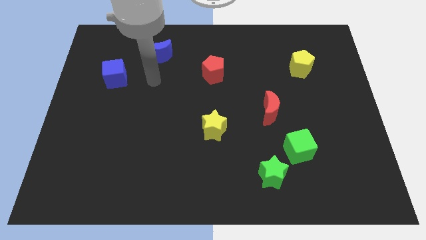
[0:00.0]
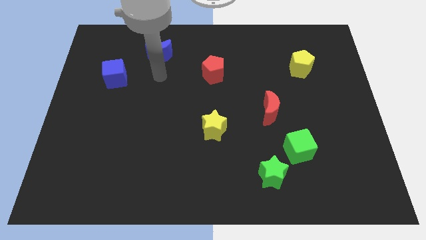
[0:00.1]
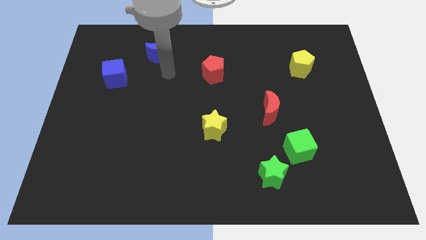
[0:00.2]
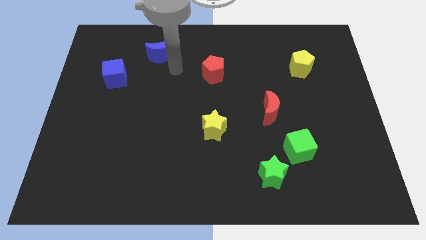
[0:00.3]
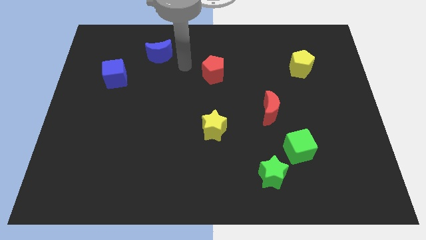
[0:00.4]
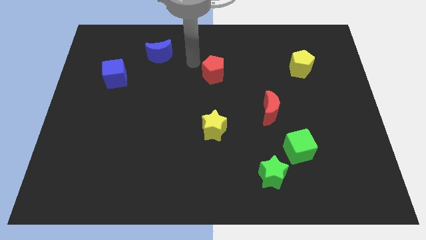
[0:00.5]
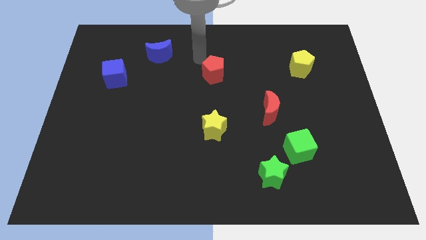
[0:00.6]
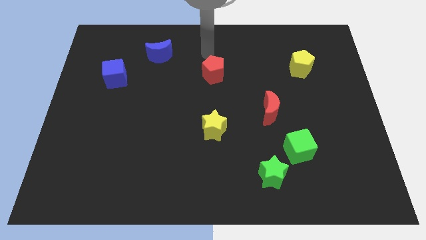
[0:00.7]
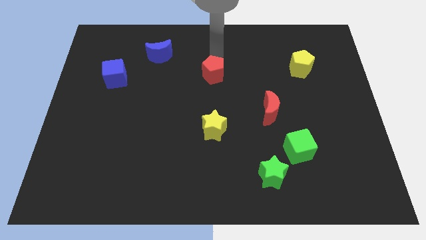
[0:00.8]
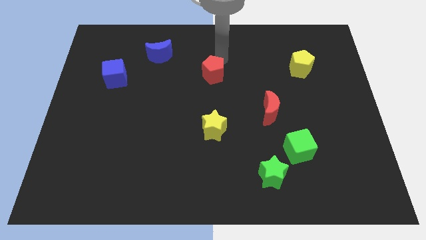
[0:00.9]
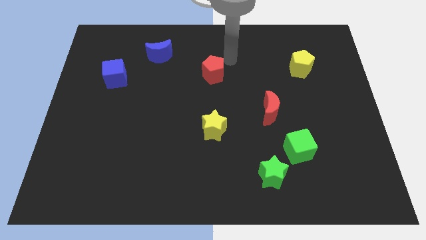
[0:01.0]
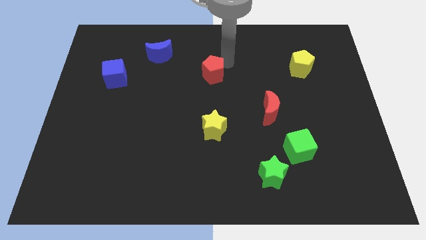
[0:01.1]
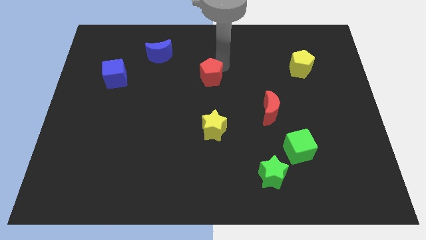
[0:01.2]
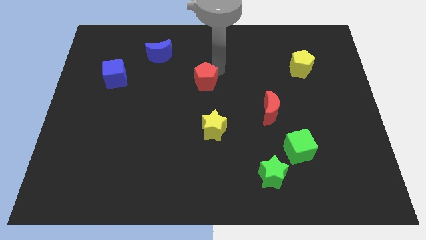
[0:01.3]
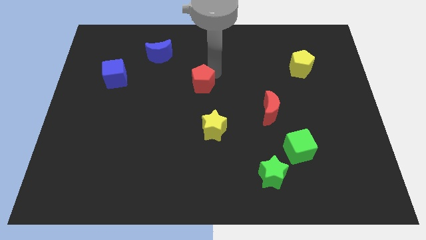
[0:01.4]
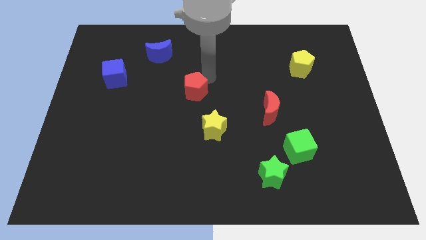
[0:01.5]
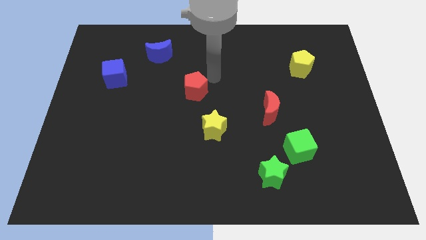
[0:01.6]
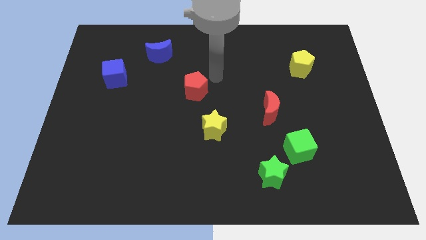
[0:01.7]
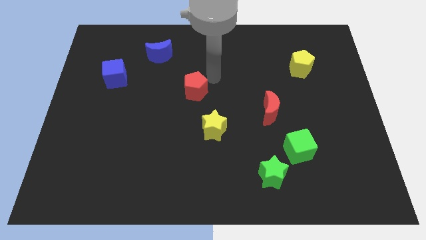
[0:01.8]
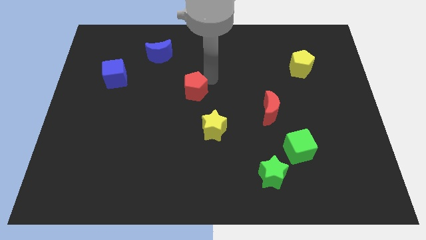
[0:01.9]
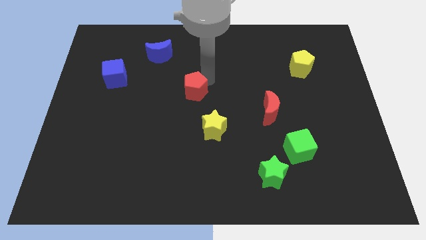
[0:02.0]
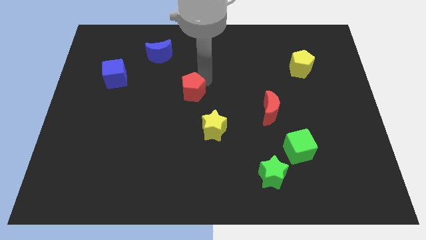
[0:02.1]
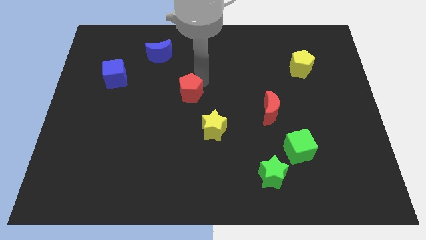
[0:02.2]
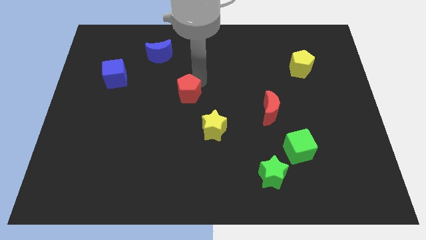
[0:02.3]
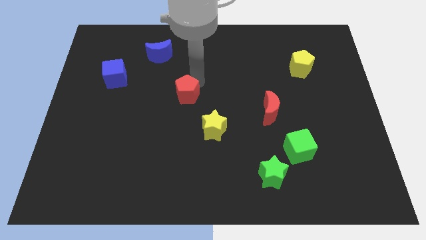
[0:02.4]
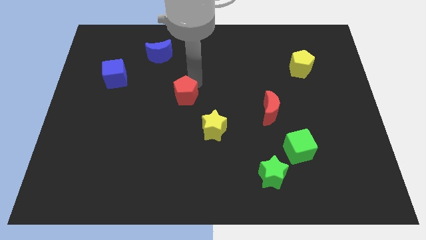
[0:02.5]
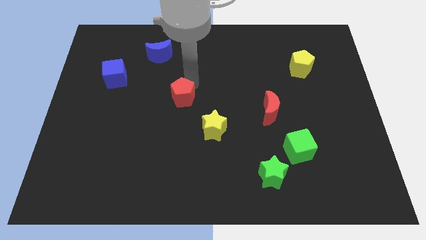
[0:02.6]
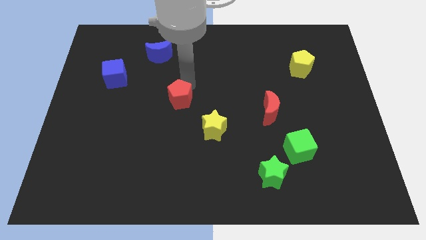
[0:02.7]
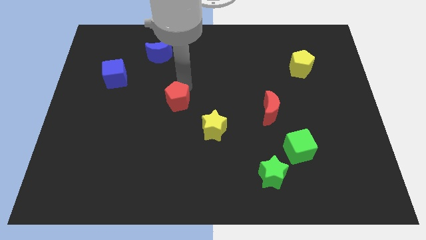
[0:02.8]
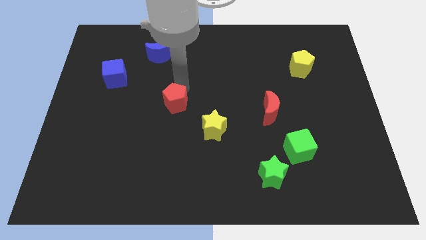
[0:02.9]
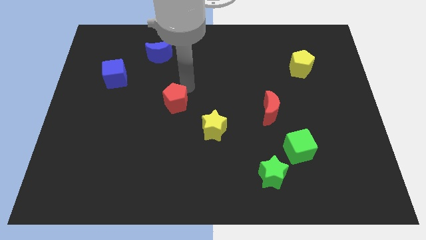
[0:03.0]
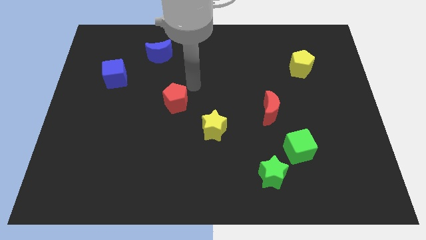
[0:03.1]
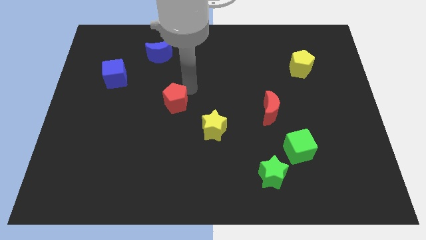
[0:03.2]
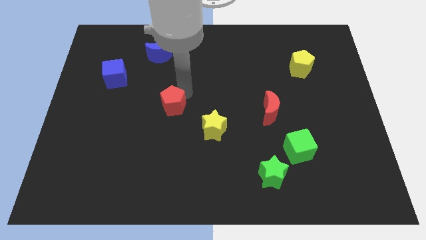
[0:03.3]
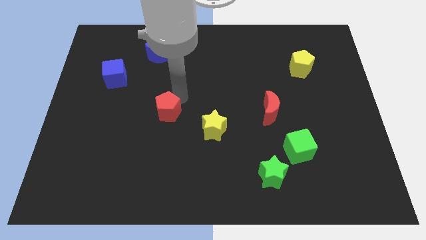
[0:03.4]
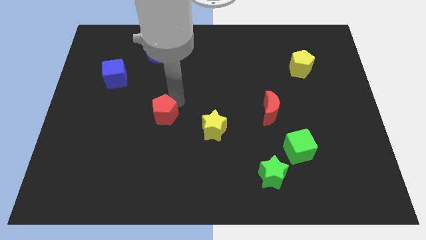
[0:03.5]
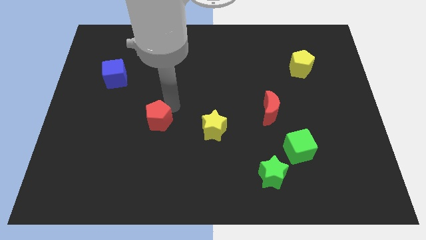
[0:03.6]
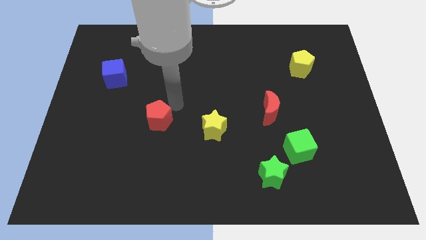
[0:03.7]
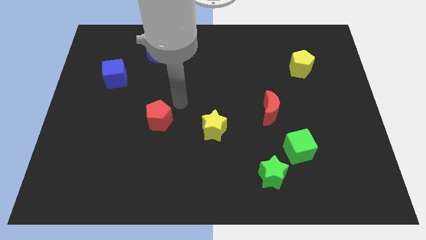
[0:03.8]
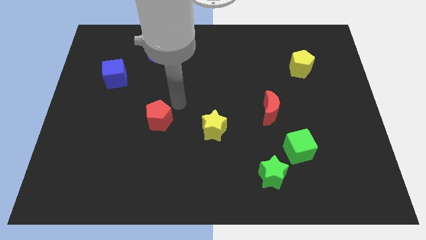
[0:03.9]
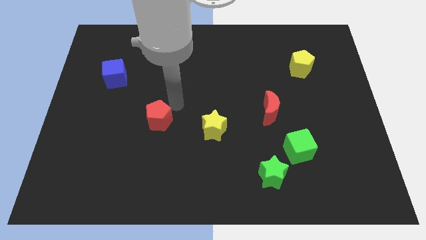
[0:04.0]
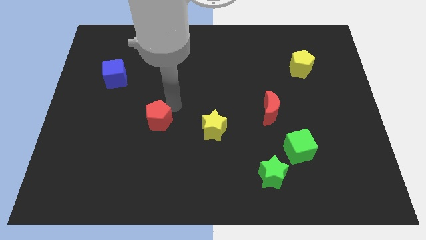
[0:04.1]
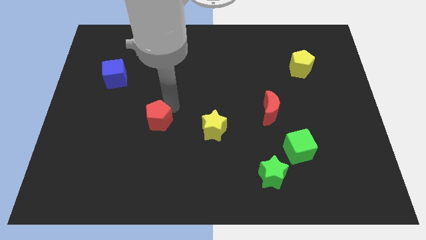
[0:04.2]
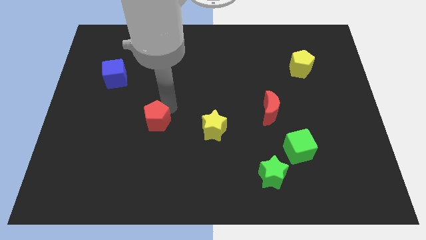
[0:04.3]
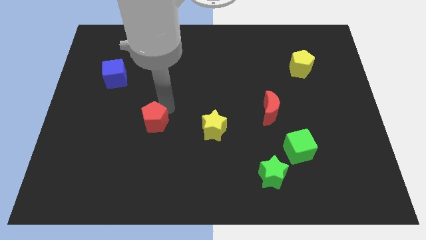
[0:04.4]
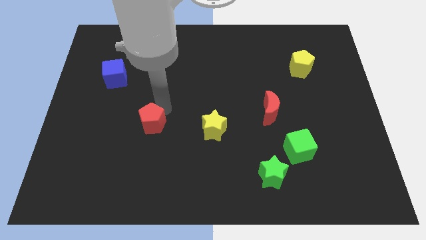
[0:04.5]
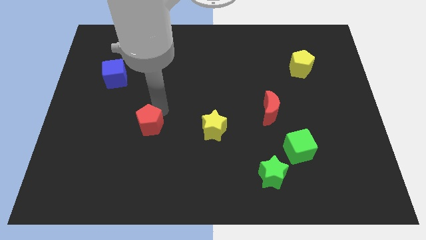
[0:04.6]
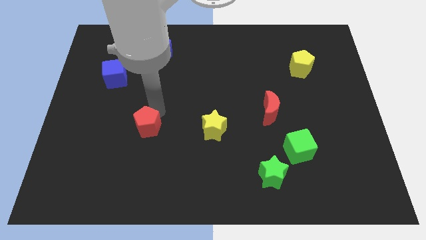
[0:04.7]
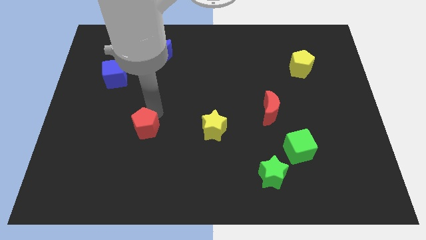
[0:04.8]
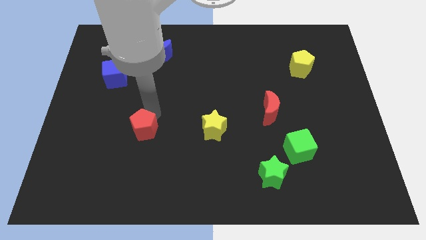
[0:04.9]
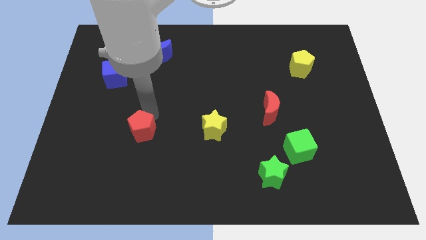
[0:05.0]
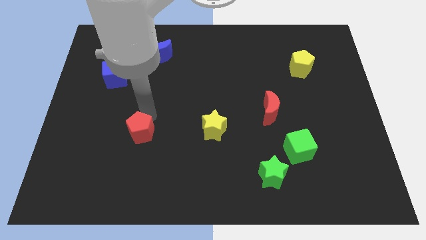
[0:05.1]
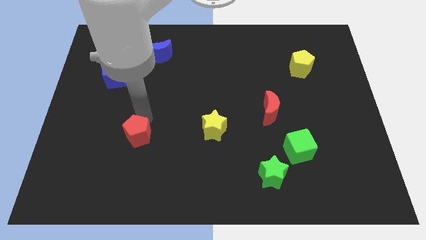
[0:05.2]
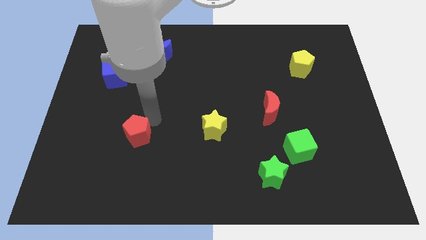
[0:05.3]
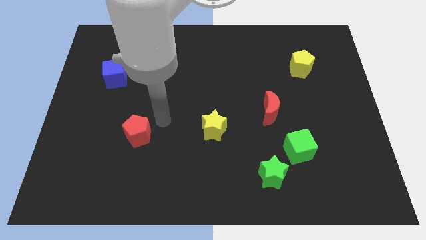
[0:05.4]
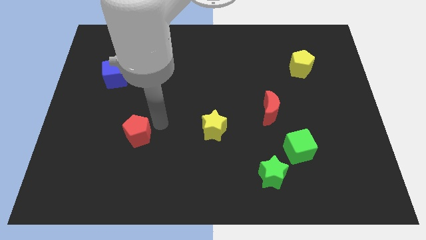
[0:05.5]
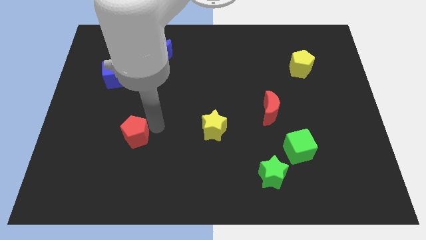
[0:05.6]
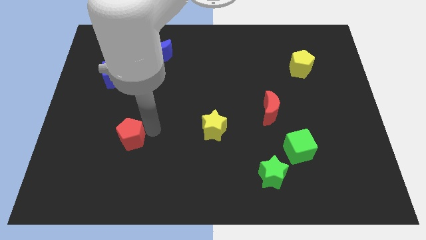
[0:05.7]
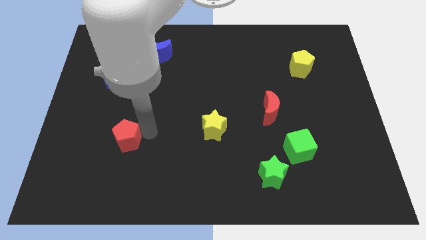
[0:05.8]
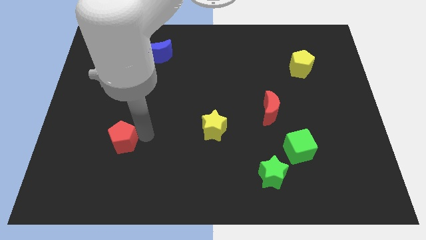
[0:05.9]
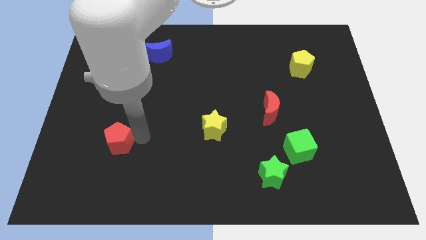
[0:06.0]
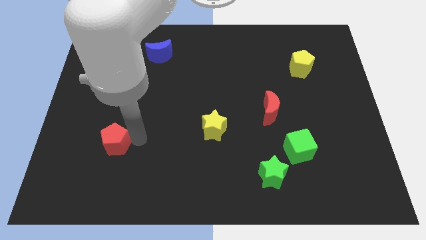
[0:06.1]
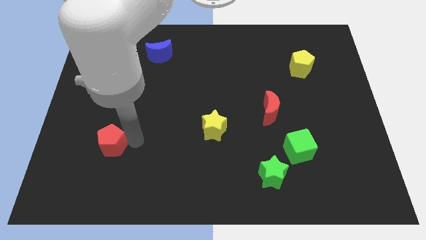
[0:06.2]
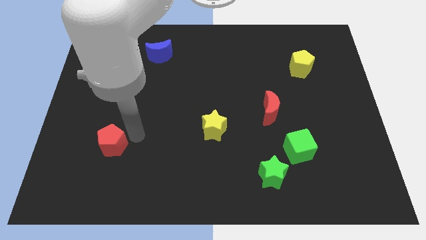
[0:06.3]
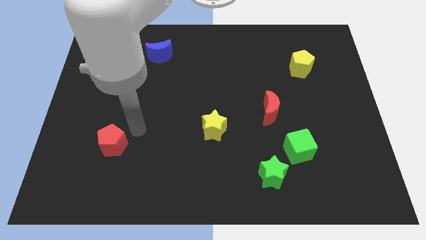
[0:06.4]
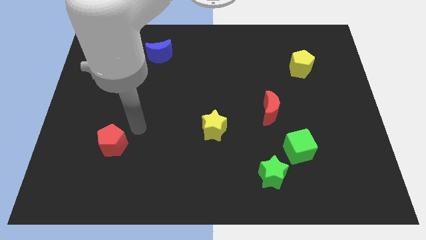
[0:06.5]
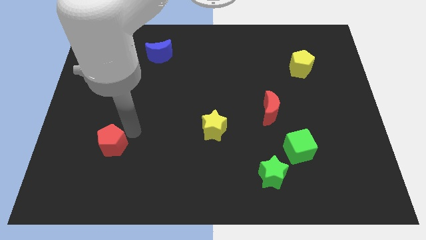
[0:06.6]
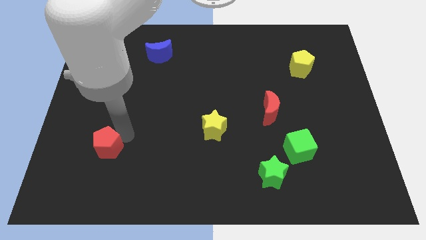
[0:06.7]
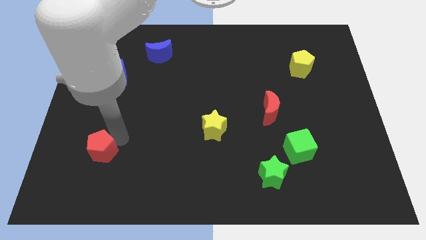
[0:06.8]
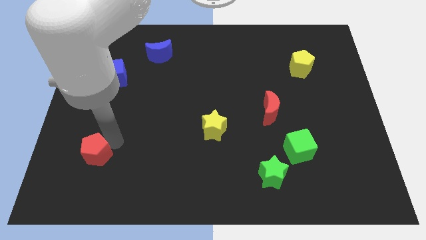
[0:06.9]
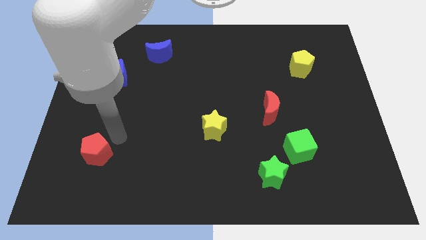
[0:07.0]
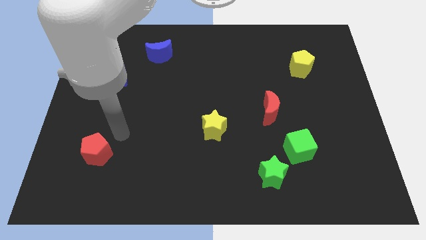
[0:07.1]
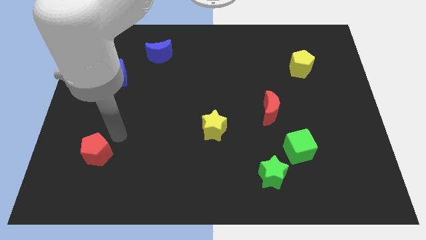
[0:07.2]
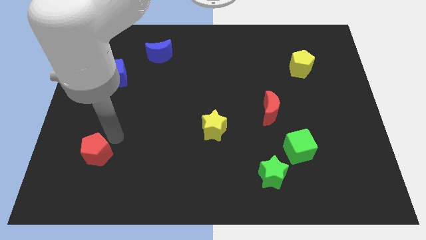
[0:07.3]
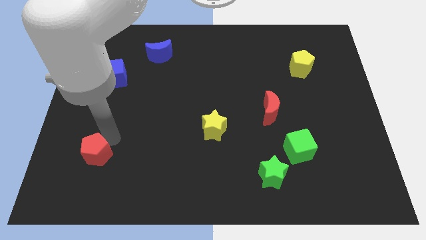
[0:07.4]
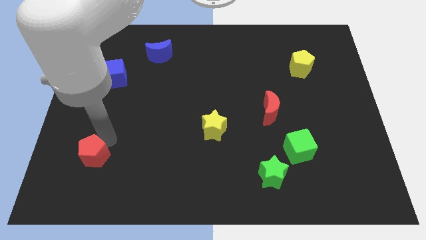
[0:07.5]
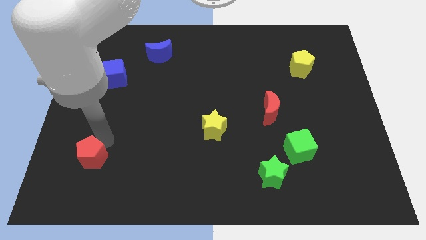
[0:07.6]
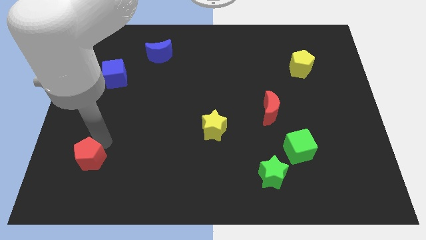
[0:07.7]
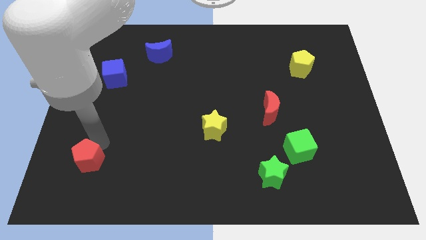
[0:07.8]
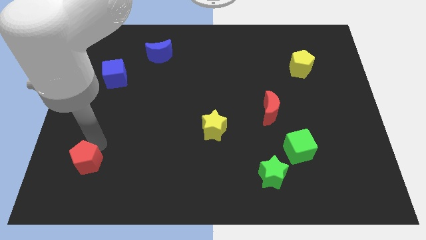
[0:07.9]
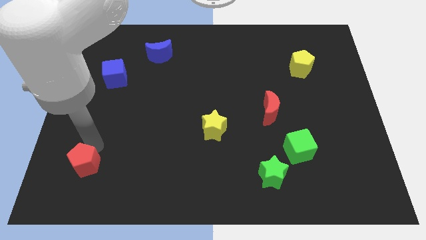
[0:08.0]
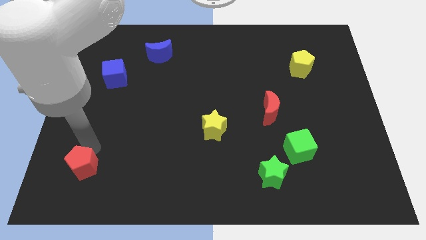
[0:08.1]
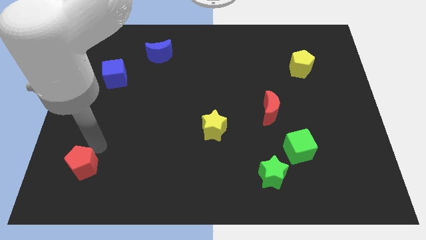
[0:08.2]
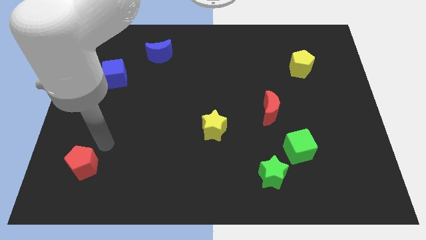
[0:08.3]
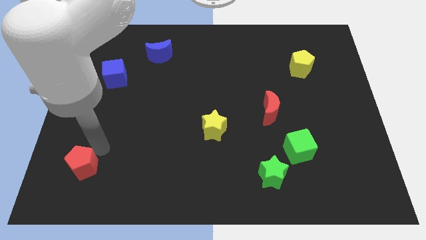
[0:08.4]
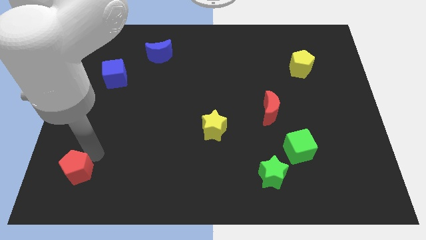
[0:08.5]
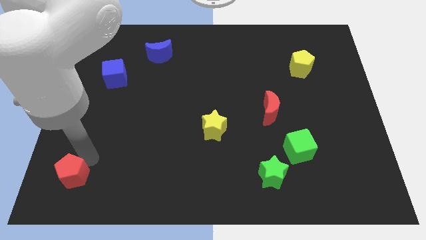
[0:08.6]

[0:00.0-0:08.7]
move the red pentagon to the bottom left of the board
